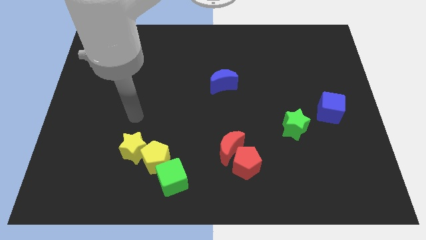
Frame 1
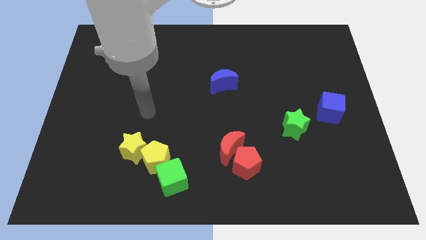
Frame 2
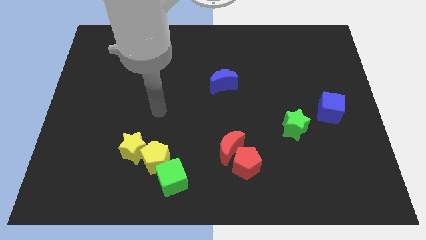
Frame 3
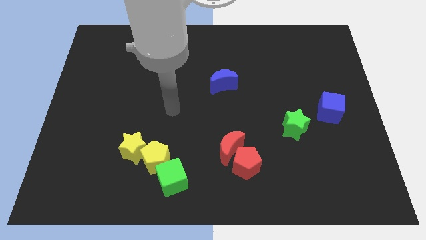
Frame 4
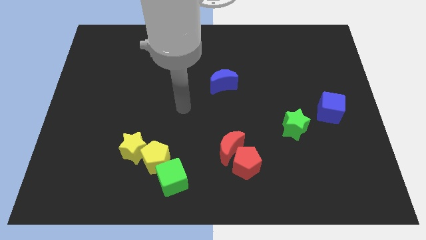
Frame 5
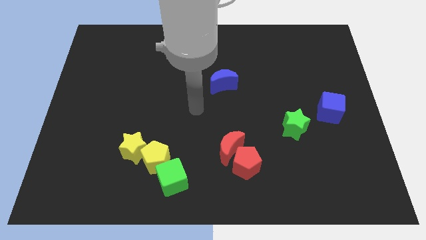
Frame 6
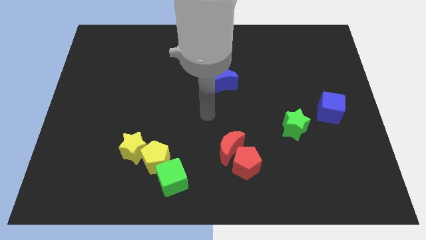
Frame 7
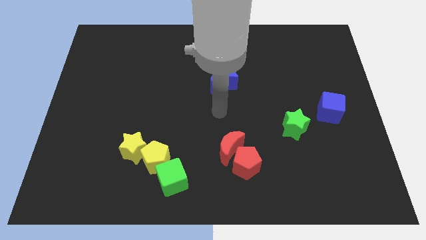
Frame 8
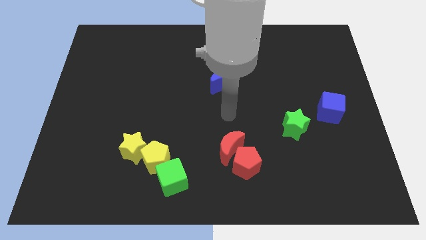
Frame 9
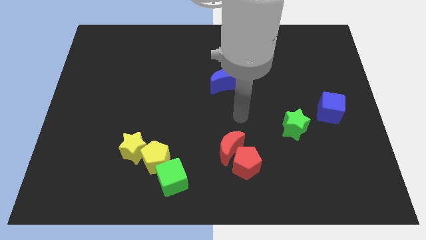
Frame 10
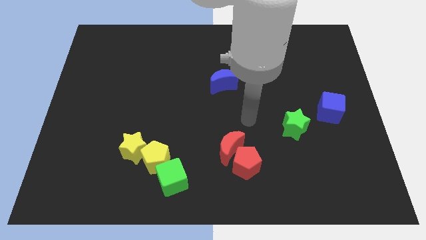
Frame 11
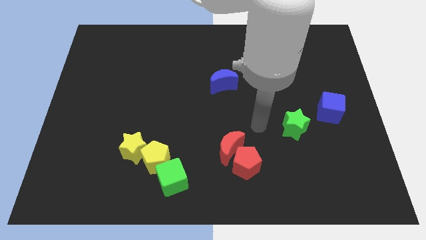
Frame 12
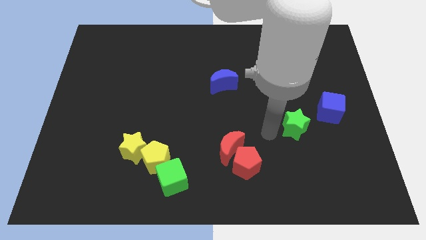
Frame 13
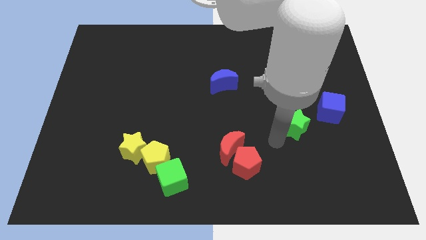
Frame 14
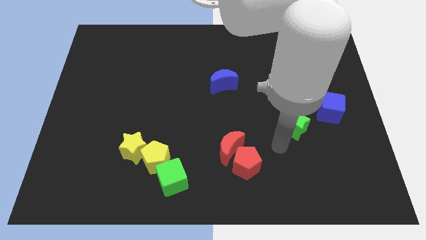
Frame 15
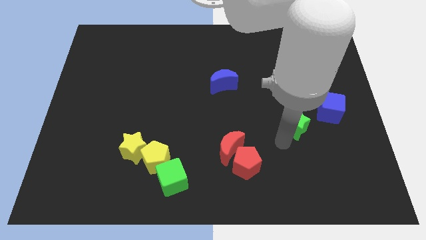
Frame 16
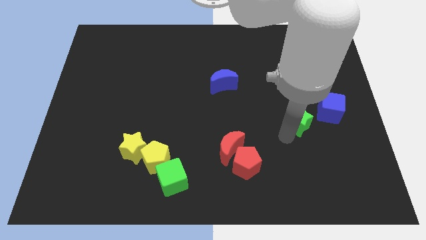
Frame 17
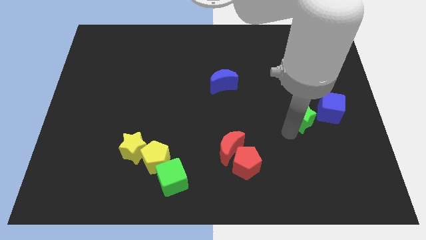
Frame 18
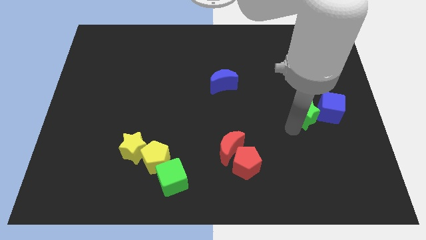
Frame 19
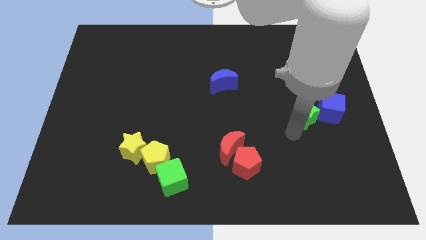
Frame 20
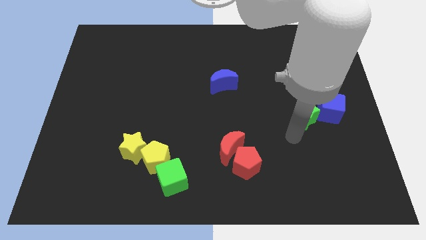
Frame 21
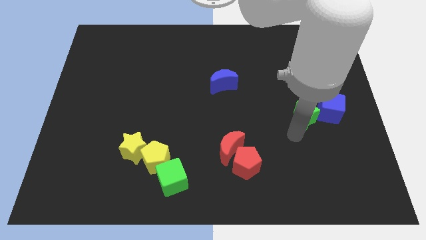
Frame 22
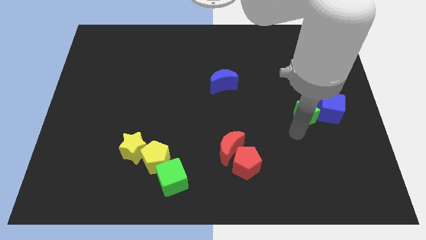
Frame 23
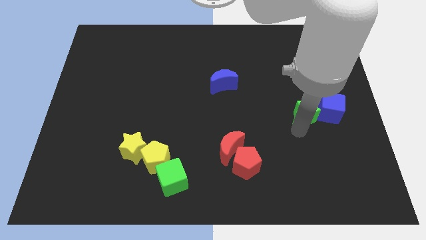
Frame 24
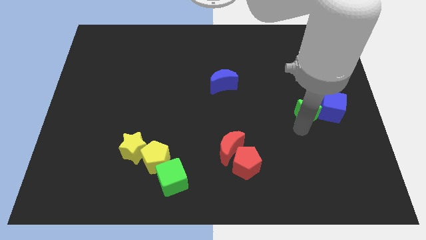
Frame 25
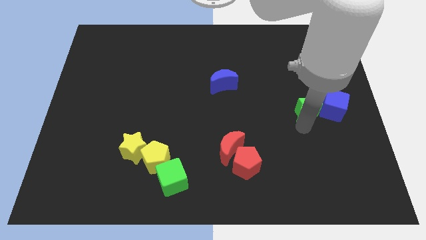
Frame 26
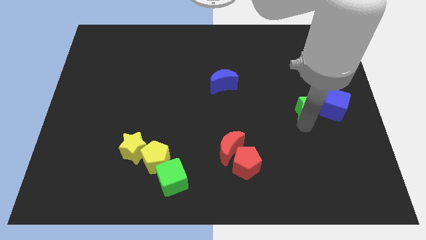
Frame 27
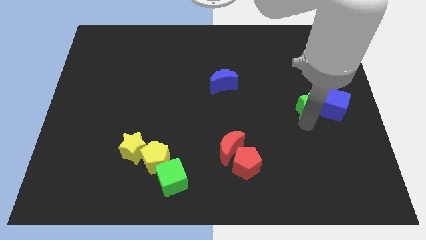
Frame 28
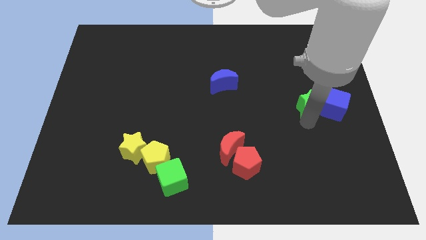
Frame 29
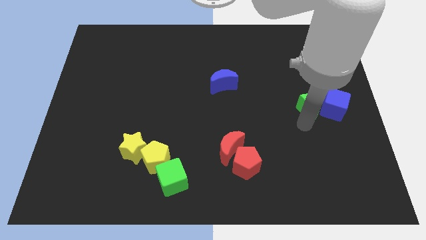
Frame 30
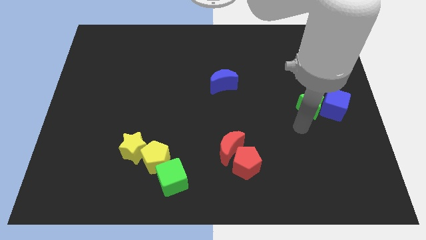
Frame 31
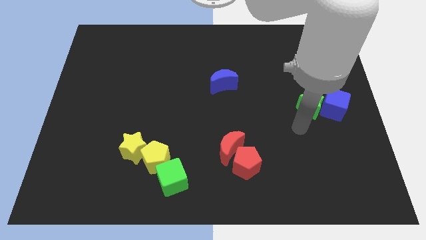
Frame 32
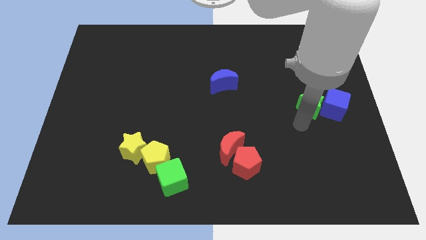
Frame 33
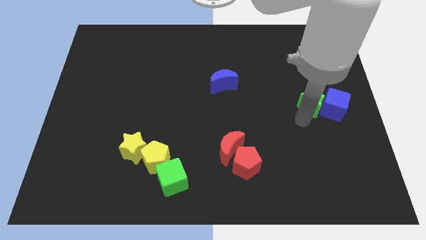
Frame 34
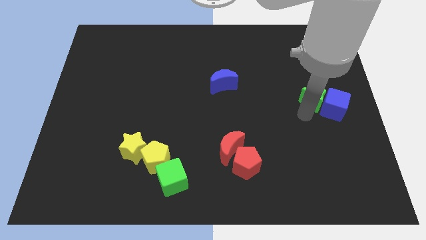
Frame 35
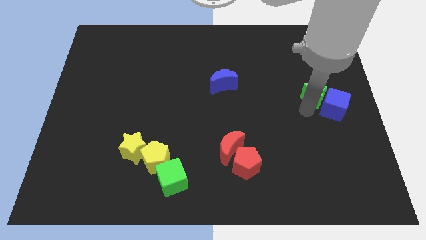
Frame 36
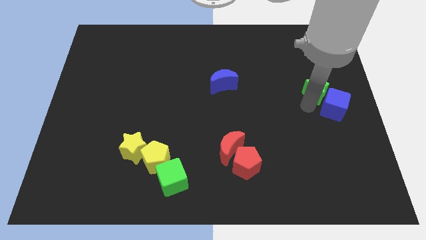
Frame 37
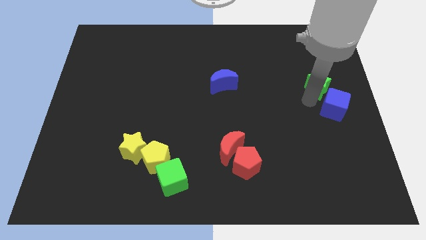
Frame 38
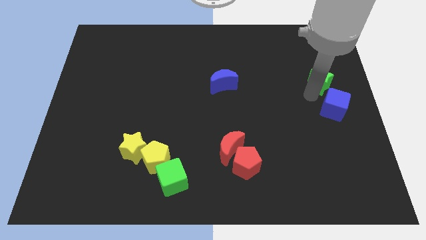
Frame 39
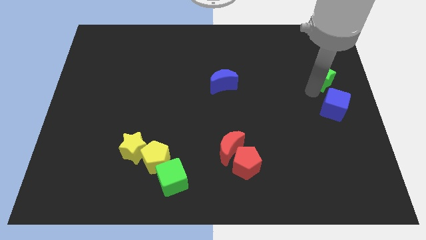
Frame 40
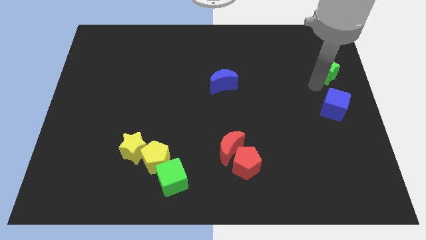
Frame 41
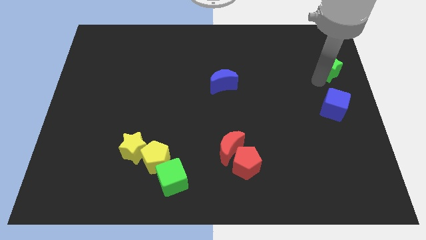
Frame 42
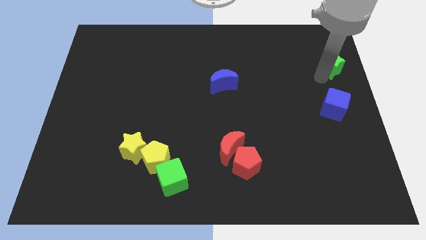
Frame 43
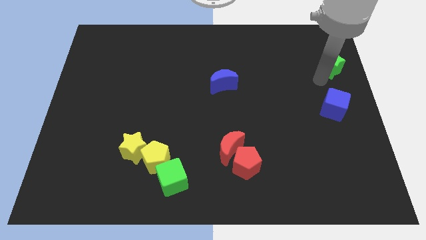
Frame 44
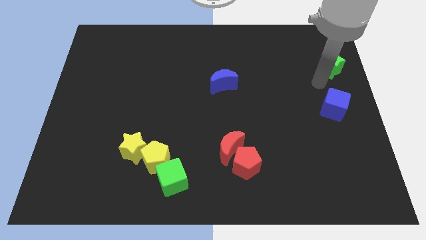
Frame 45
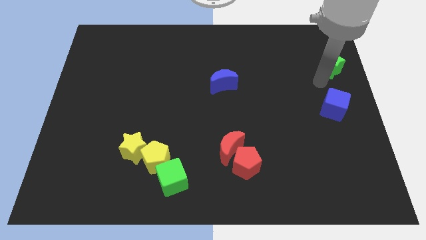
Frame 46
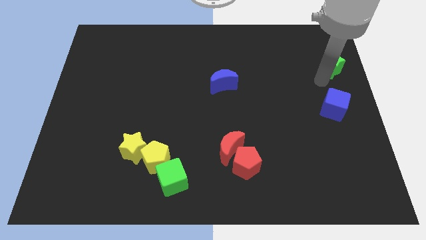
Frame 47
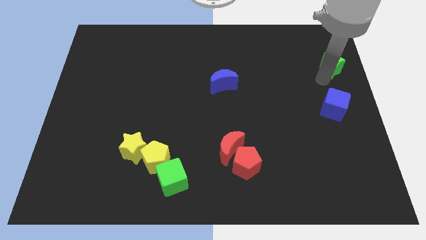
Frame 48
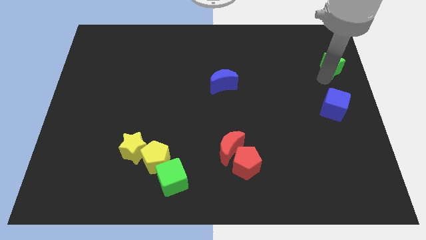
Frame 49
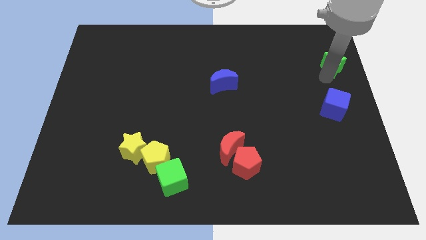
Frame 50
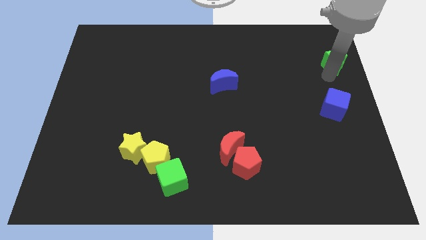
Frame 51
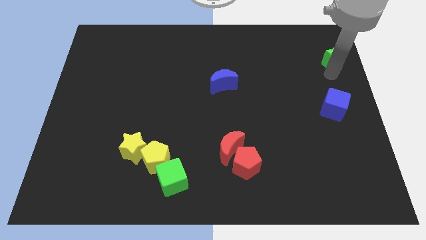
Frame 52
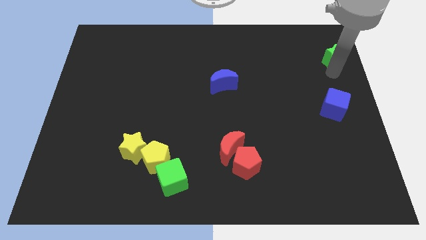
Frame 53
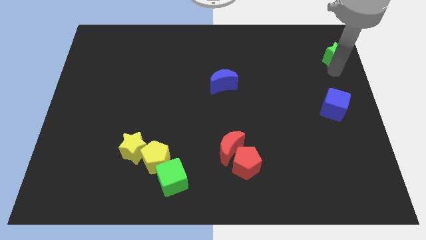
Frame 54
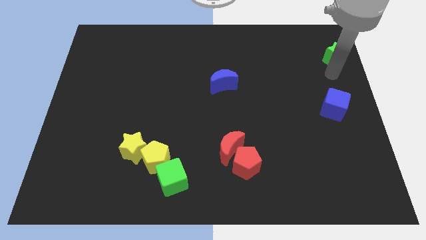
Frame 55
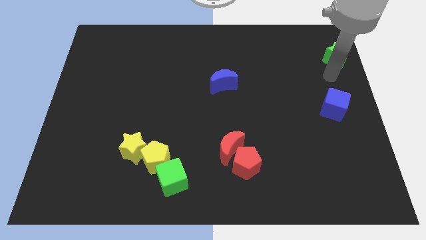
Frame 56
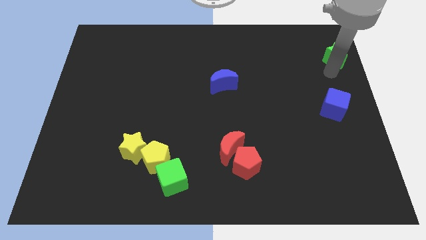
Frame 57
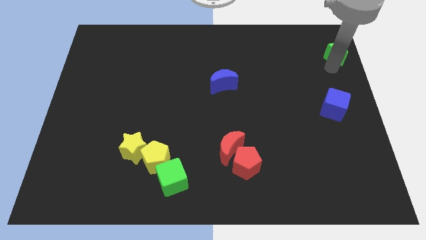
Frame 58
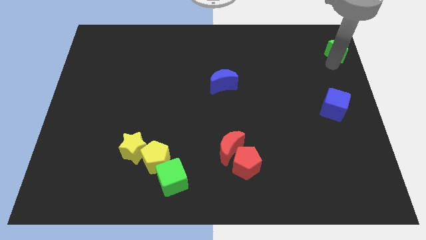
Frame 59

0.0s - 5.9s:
move the green star to the top right corner

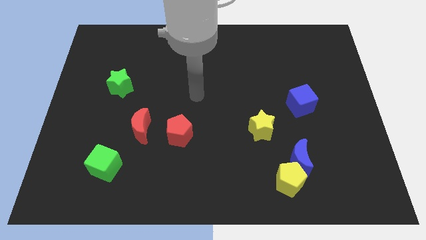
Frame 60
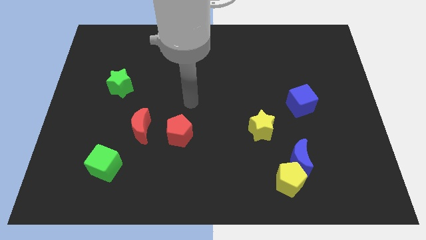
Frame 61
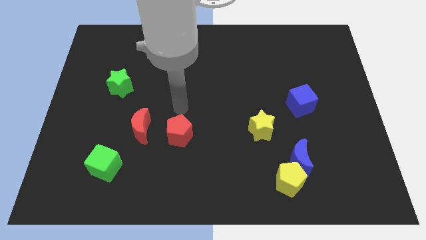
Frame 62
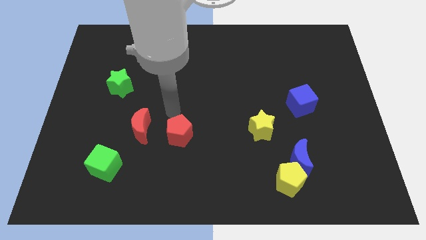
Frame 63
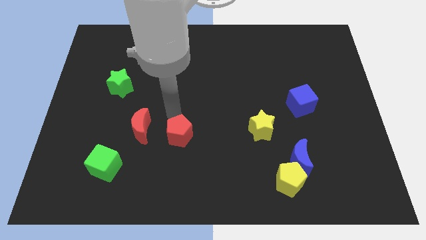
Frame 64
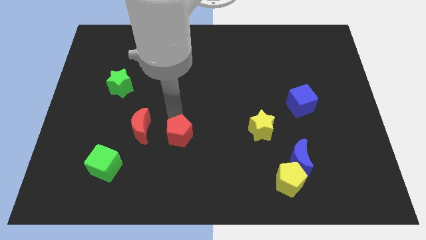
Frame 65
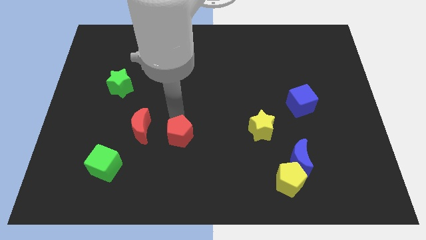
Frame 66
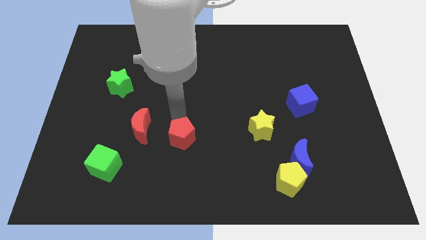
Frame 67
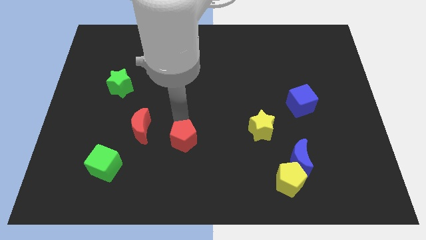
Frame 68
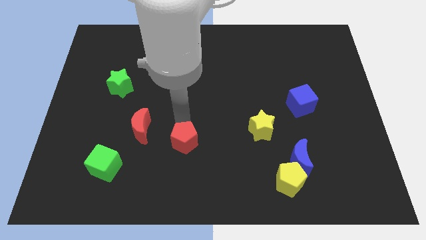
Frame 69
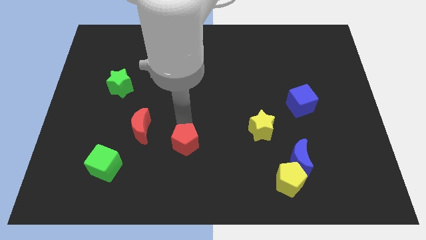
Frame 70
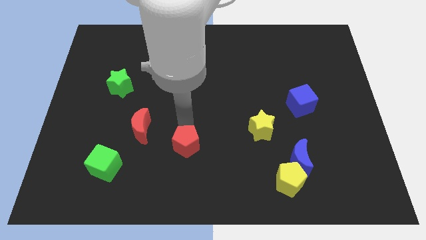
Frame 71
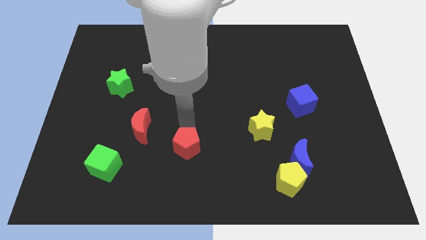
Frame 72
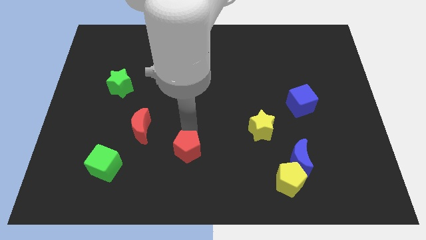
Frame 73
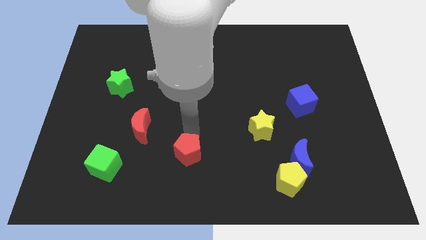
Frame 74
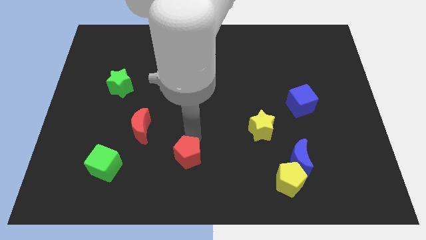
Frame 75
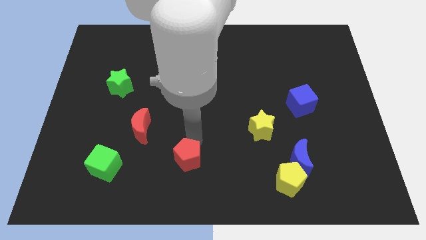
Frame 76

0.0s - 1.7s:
put the red pentagon to the bottom side
